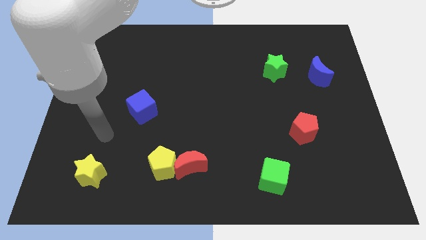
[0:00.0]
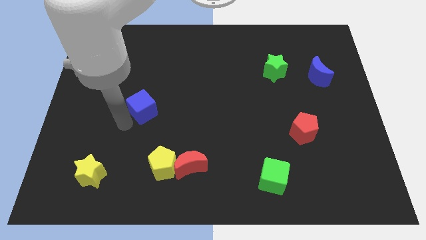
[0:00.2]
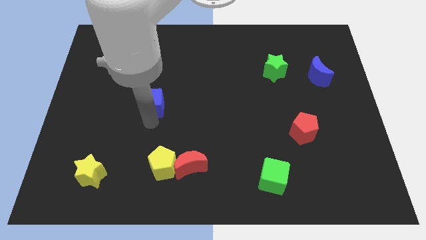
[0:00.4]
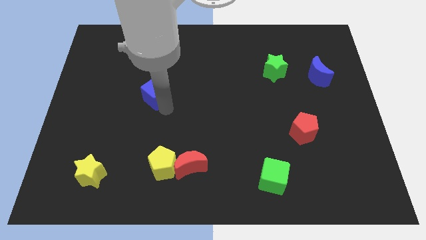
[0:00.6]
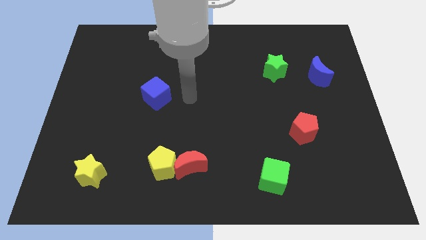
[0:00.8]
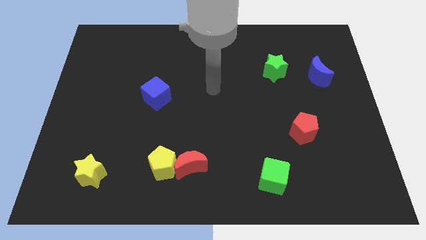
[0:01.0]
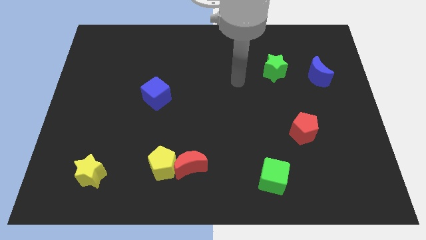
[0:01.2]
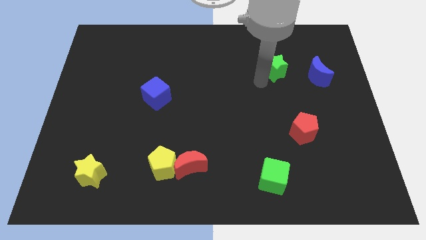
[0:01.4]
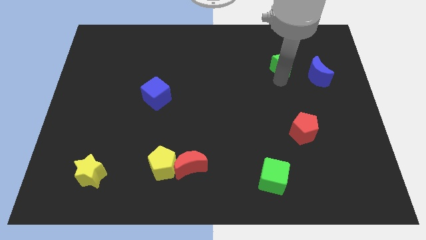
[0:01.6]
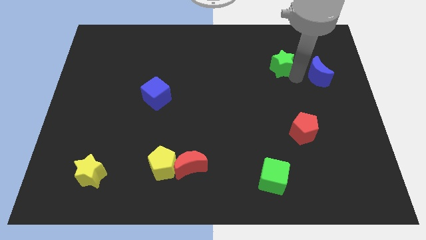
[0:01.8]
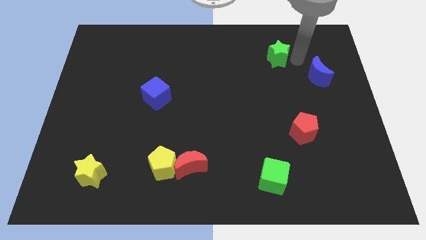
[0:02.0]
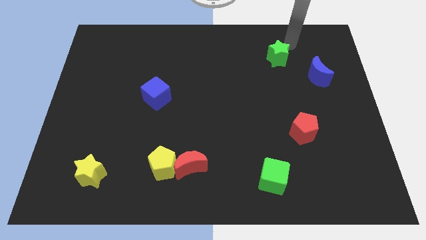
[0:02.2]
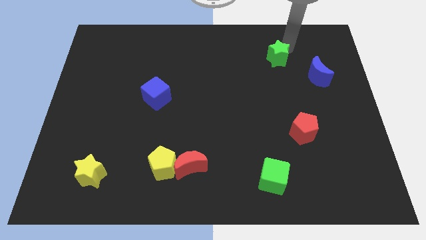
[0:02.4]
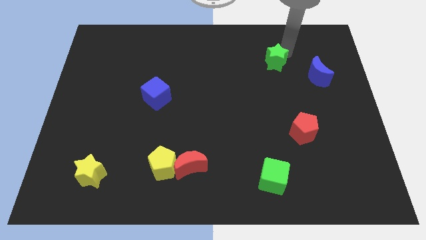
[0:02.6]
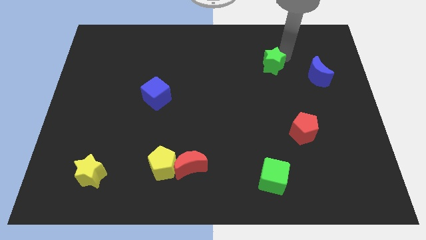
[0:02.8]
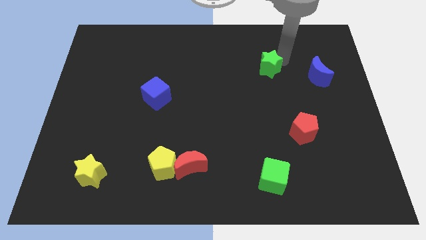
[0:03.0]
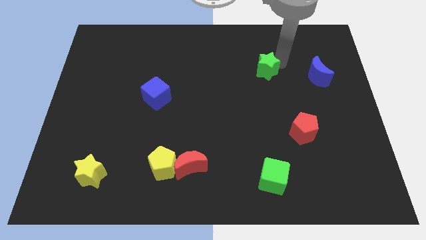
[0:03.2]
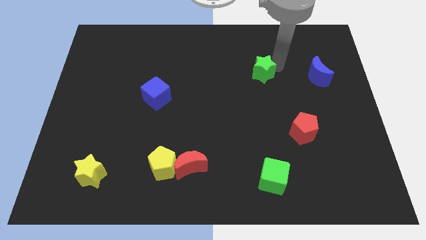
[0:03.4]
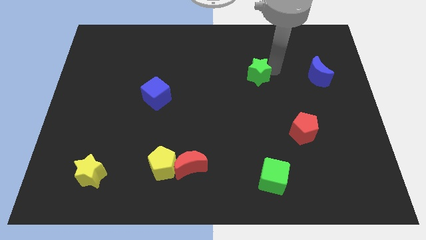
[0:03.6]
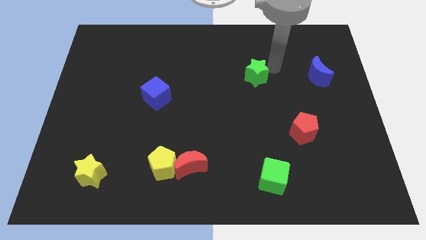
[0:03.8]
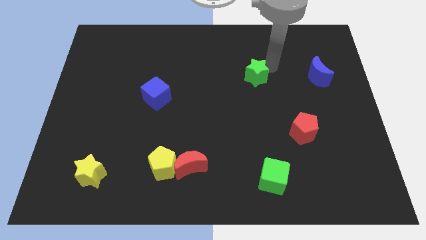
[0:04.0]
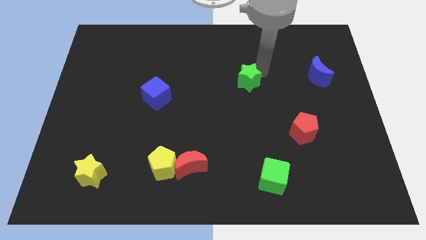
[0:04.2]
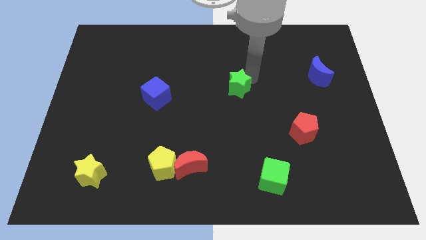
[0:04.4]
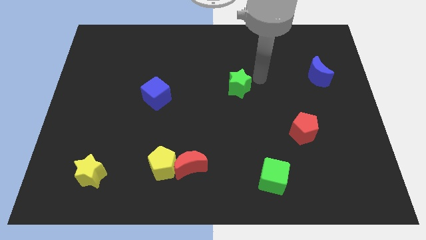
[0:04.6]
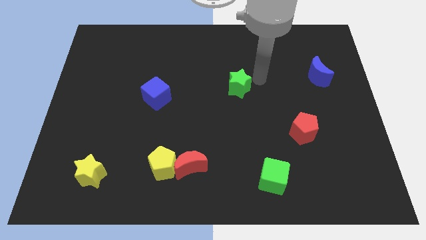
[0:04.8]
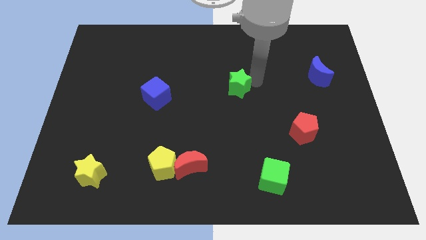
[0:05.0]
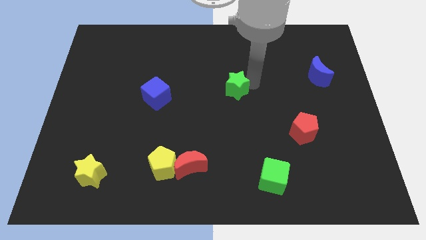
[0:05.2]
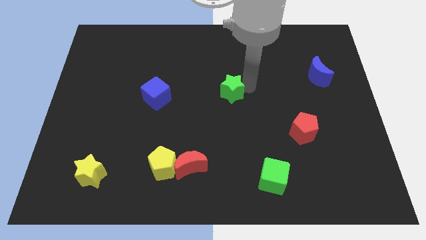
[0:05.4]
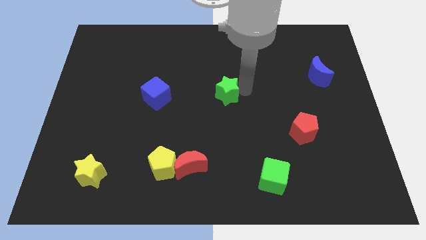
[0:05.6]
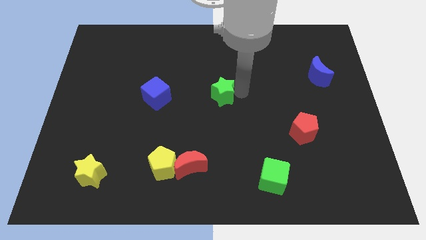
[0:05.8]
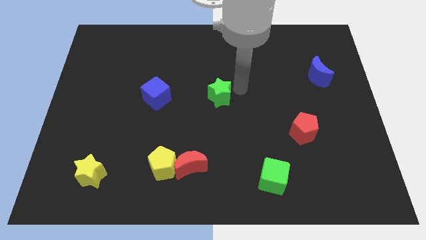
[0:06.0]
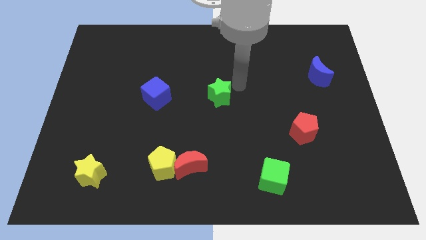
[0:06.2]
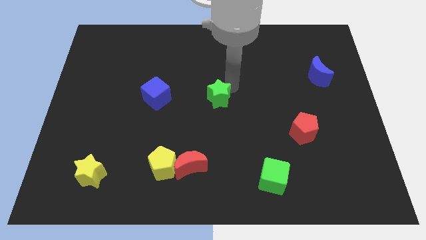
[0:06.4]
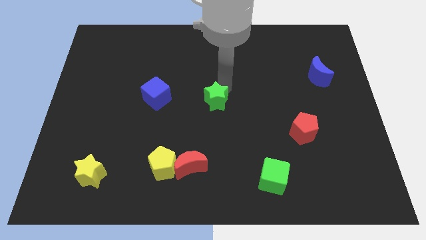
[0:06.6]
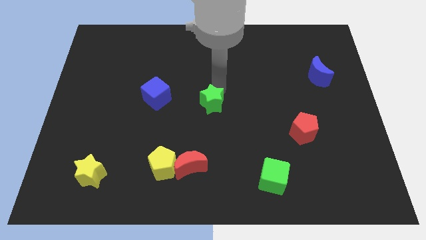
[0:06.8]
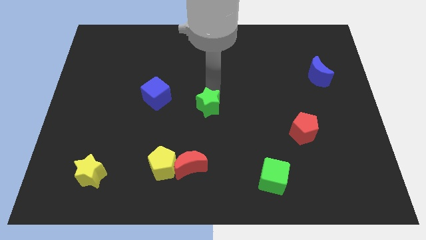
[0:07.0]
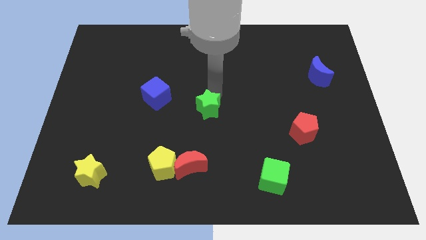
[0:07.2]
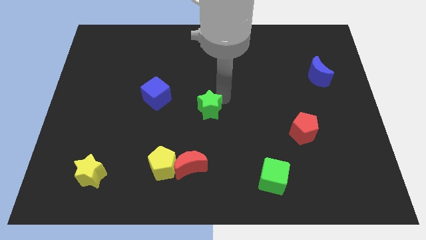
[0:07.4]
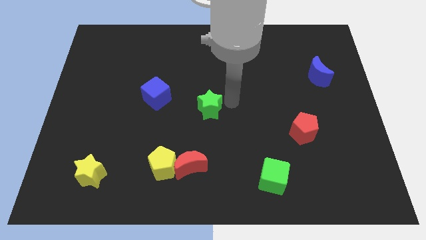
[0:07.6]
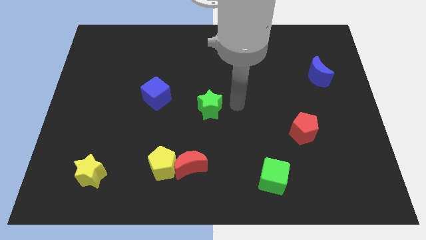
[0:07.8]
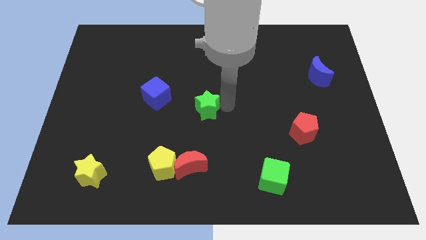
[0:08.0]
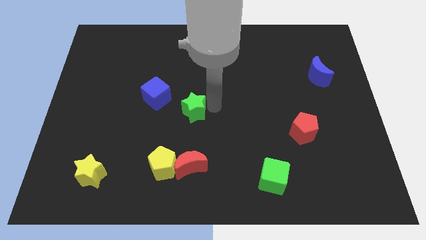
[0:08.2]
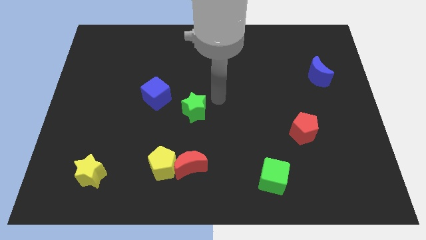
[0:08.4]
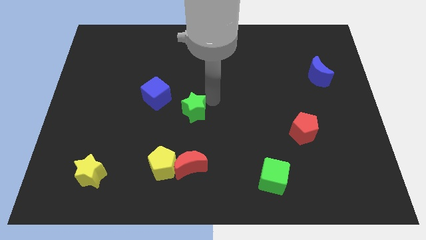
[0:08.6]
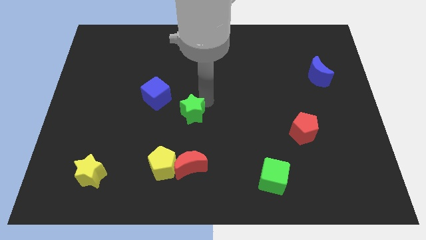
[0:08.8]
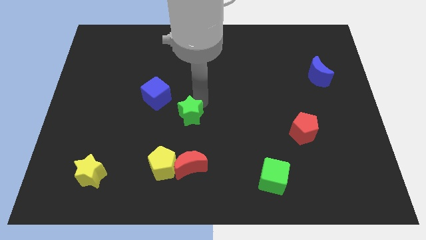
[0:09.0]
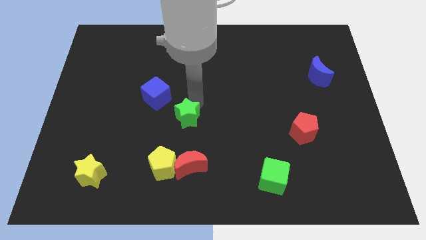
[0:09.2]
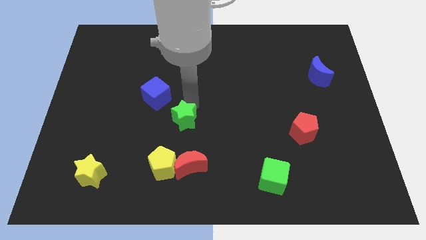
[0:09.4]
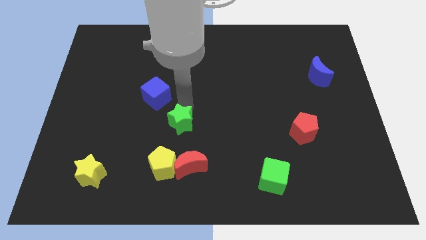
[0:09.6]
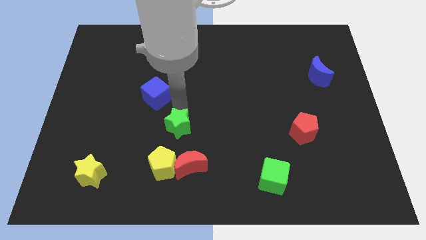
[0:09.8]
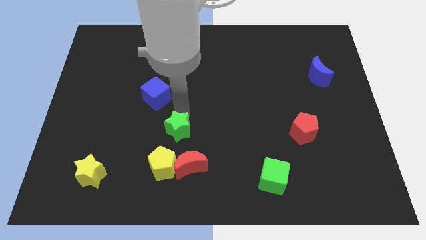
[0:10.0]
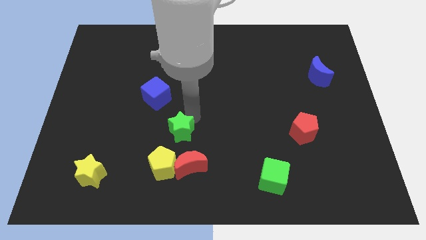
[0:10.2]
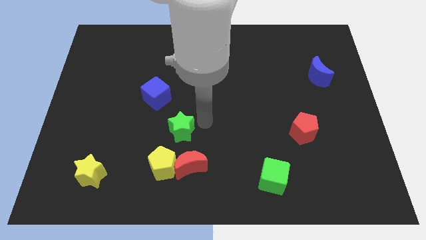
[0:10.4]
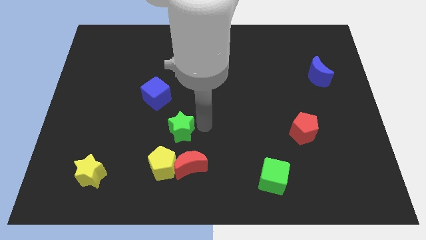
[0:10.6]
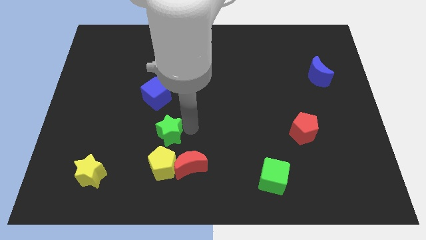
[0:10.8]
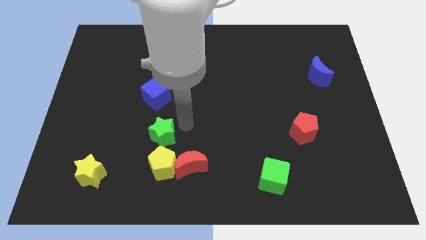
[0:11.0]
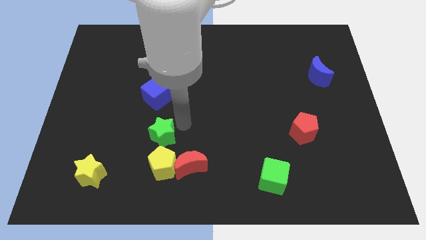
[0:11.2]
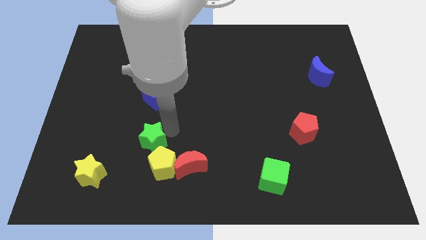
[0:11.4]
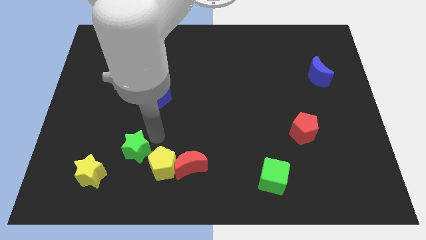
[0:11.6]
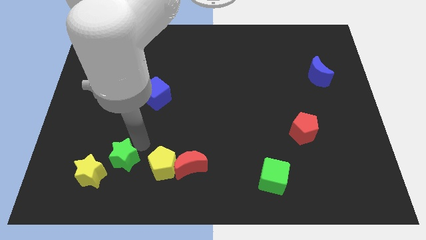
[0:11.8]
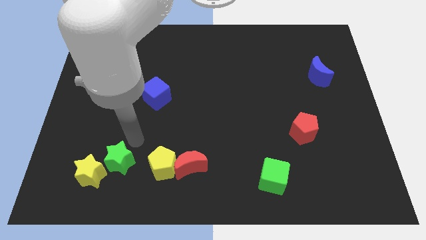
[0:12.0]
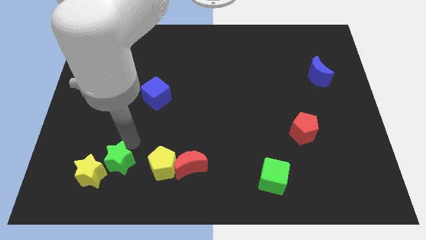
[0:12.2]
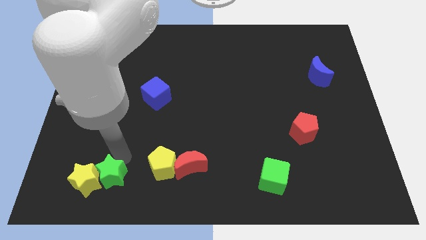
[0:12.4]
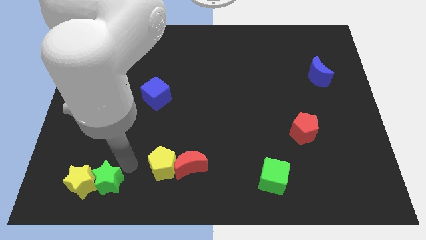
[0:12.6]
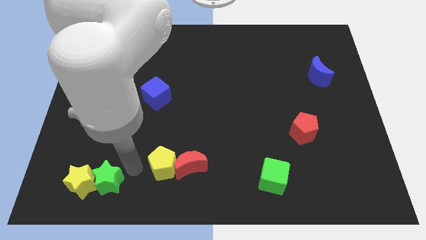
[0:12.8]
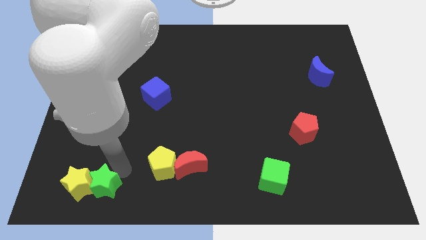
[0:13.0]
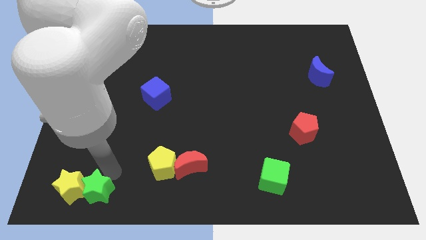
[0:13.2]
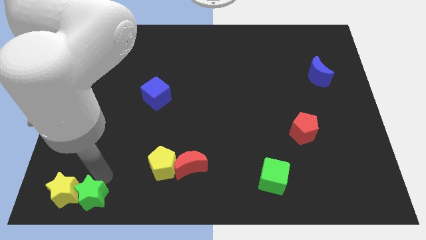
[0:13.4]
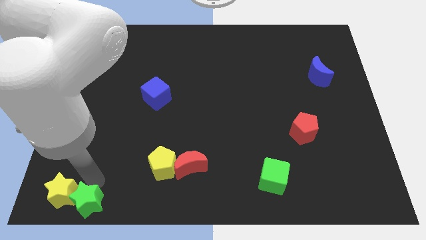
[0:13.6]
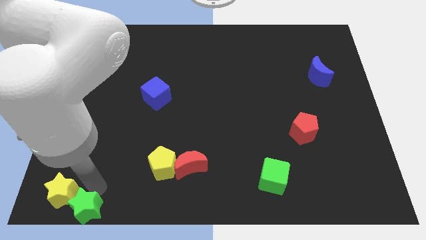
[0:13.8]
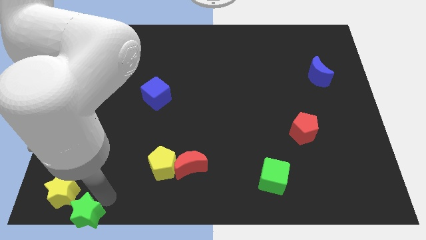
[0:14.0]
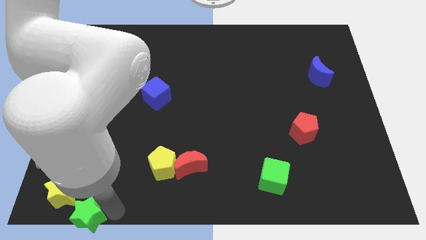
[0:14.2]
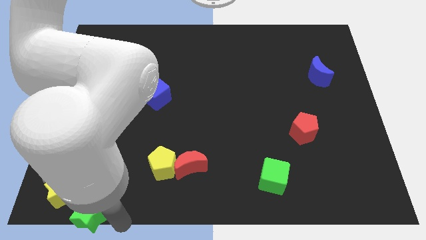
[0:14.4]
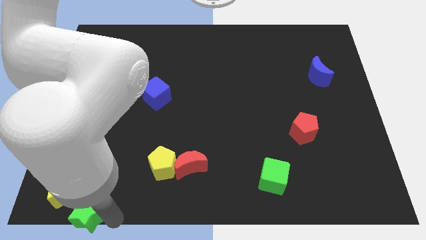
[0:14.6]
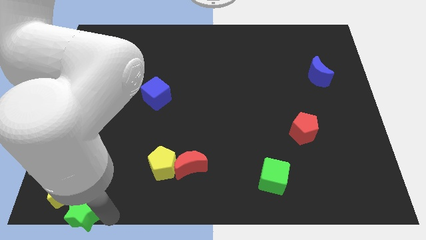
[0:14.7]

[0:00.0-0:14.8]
slide the green star to the lower left corner
